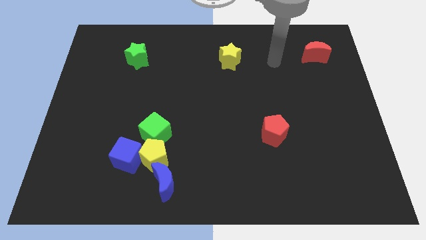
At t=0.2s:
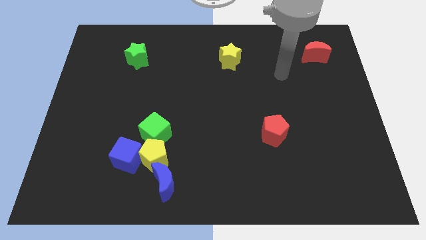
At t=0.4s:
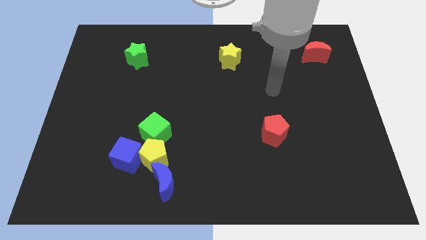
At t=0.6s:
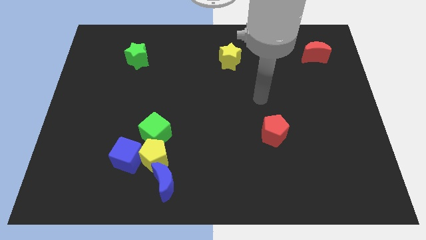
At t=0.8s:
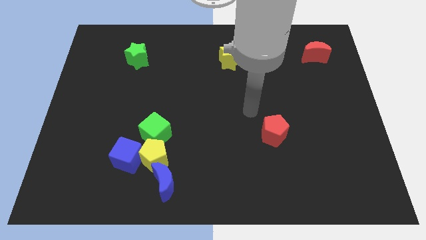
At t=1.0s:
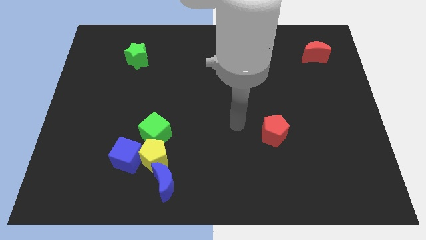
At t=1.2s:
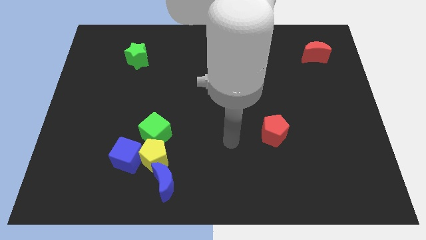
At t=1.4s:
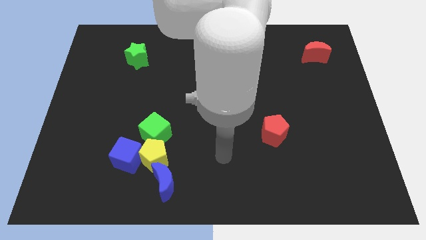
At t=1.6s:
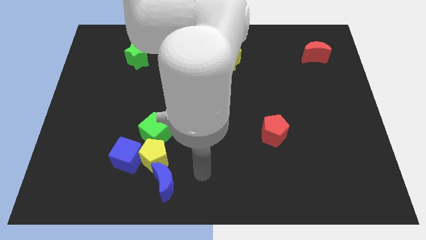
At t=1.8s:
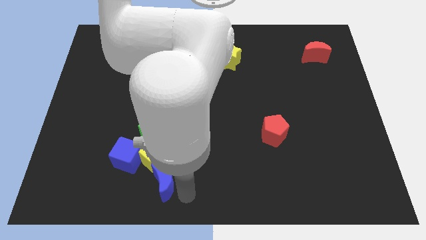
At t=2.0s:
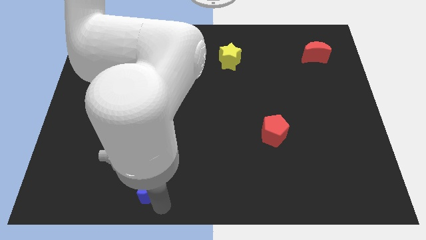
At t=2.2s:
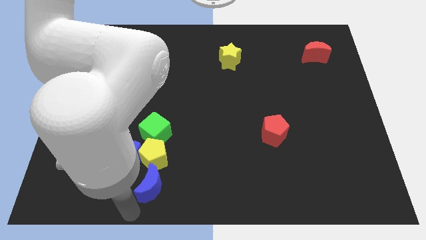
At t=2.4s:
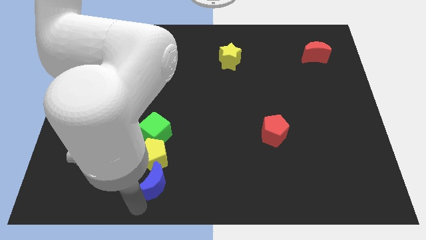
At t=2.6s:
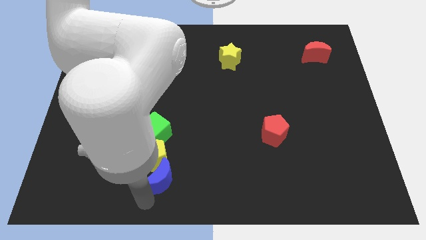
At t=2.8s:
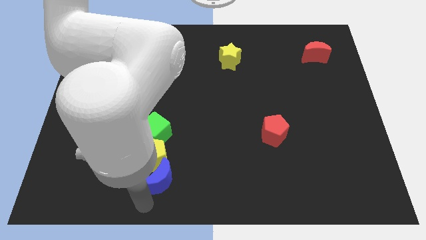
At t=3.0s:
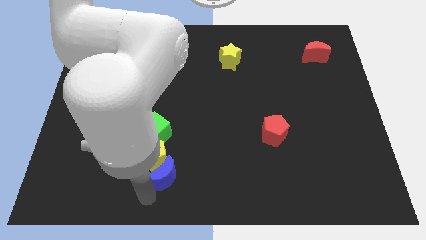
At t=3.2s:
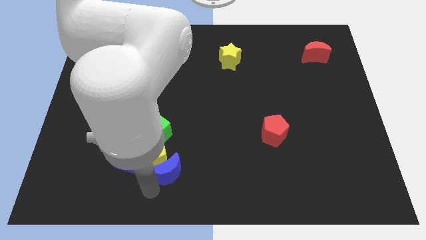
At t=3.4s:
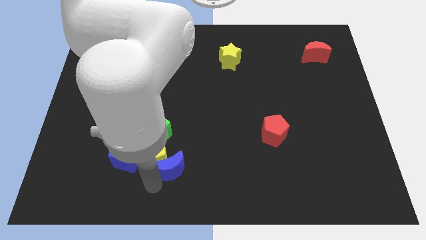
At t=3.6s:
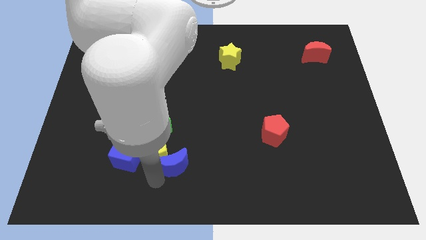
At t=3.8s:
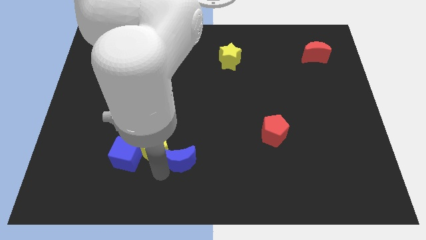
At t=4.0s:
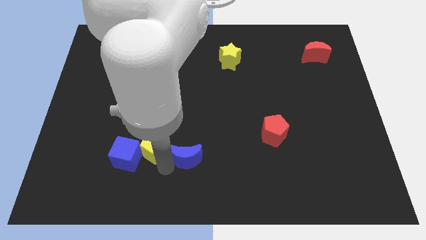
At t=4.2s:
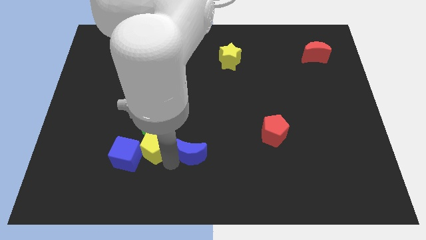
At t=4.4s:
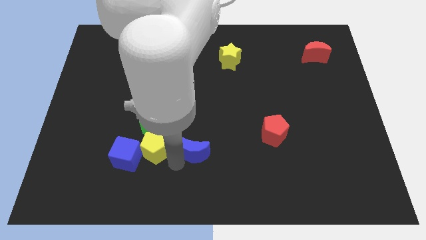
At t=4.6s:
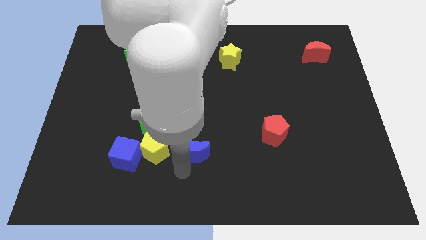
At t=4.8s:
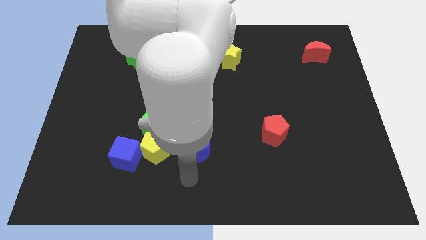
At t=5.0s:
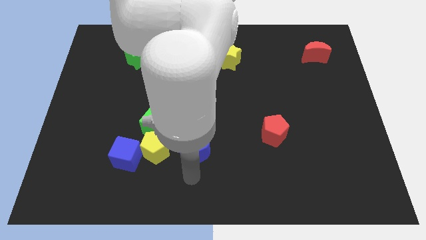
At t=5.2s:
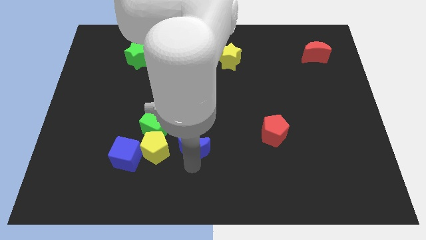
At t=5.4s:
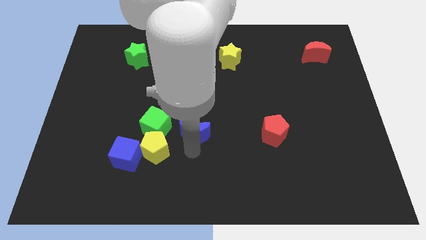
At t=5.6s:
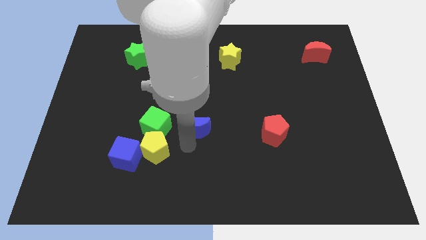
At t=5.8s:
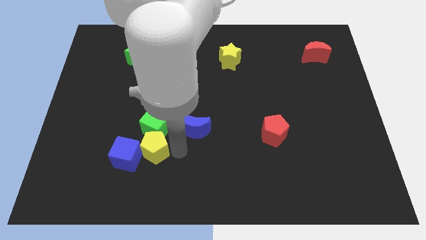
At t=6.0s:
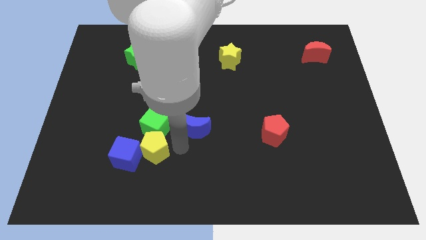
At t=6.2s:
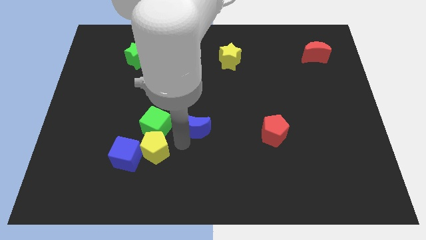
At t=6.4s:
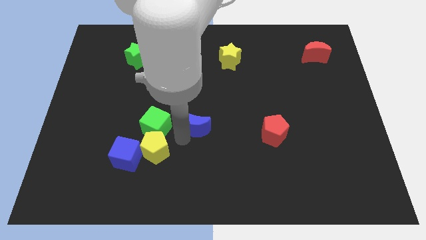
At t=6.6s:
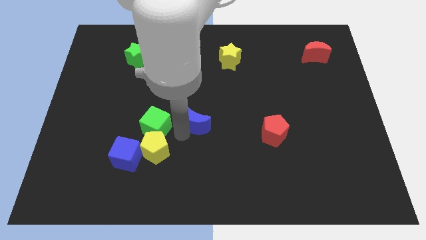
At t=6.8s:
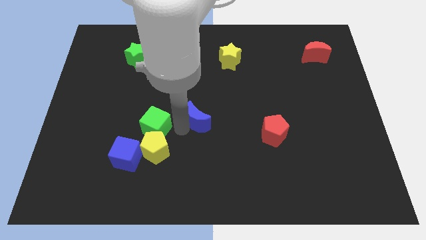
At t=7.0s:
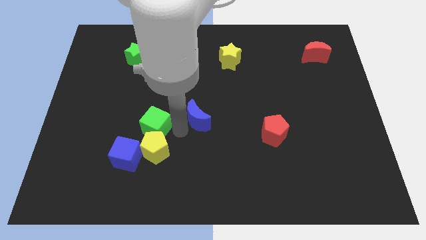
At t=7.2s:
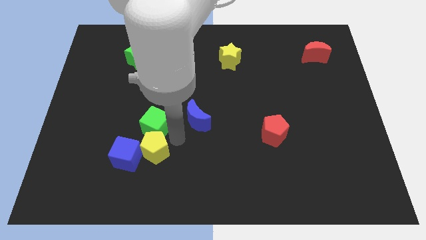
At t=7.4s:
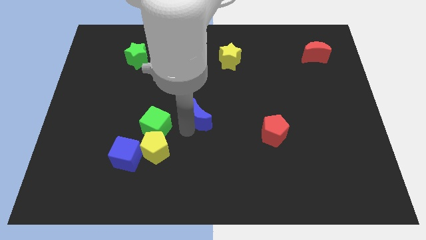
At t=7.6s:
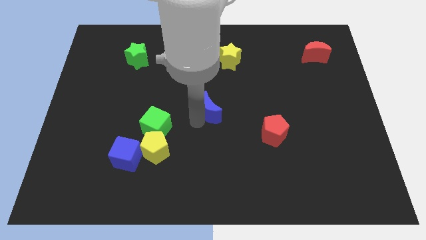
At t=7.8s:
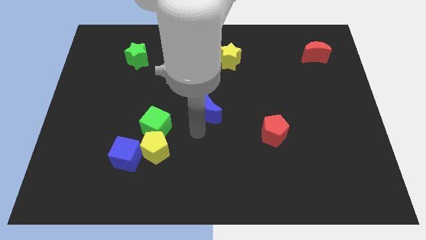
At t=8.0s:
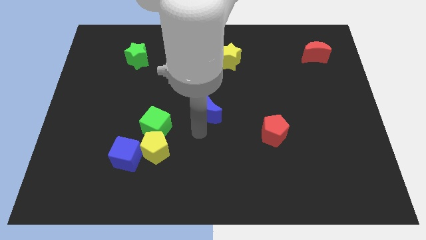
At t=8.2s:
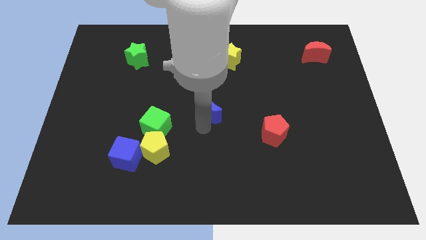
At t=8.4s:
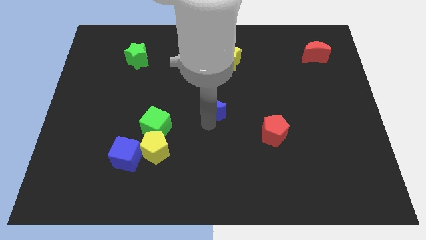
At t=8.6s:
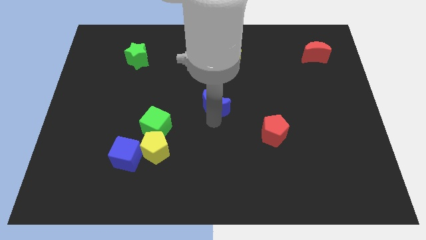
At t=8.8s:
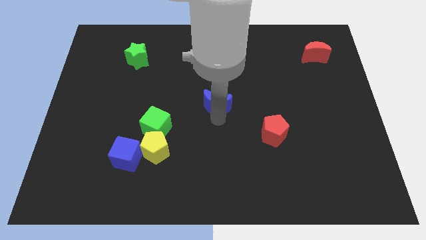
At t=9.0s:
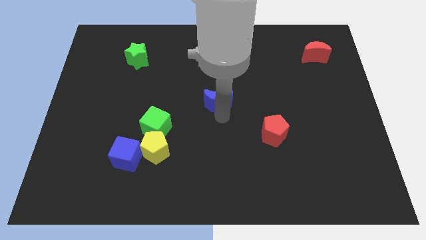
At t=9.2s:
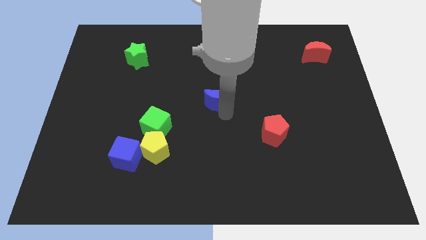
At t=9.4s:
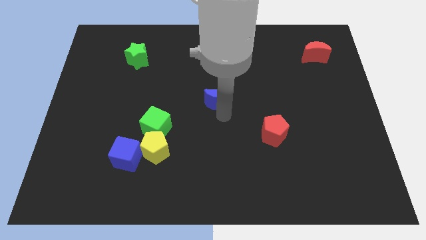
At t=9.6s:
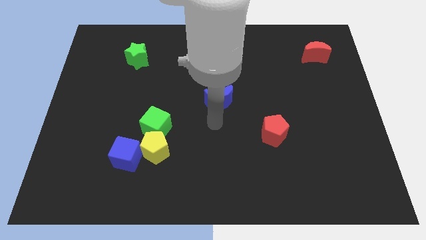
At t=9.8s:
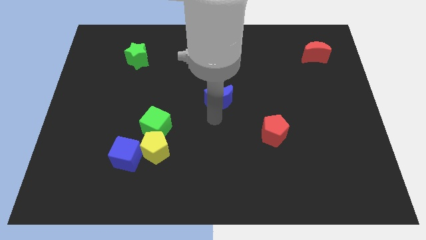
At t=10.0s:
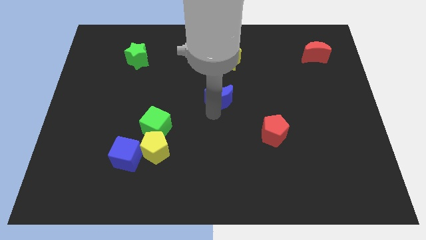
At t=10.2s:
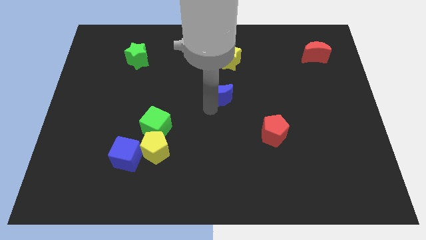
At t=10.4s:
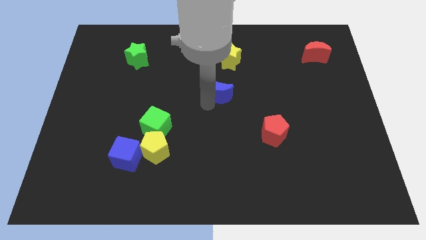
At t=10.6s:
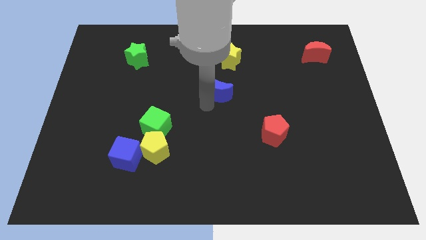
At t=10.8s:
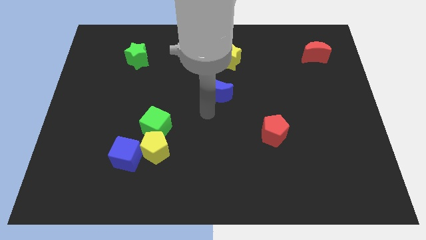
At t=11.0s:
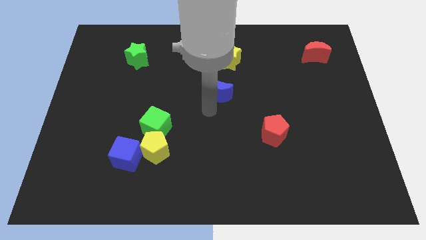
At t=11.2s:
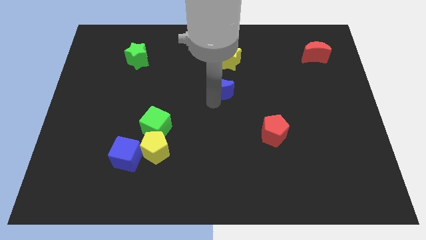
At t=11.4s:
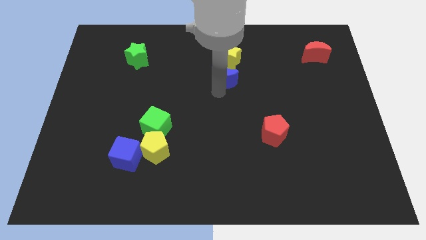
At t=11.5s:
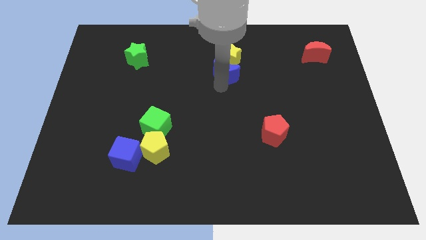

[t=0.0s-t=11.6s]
push the blue moon to the yellow star

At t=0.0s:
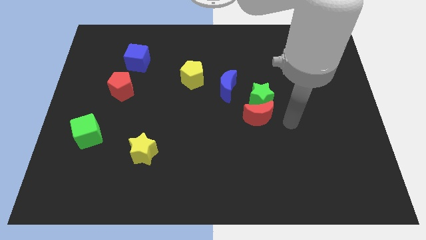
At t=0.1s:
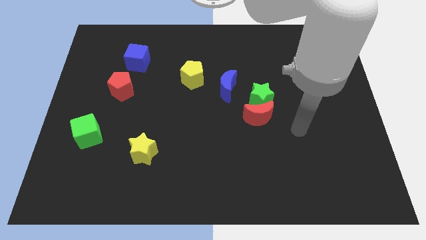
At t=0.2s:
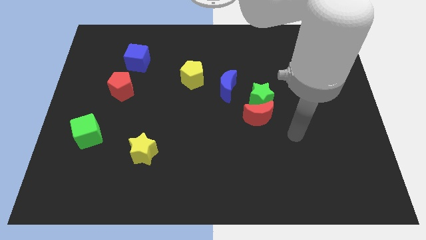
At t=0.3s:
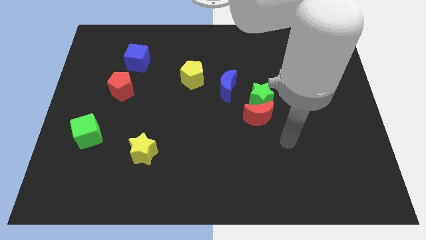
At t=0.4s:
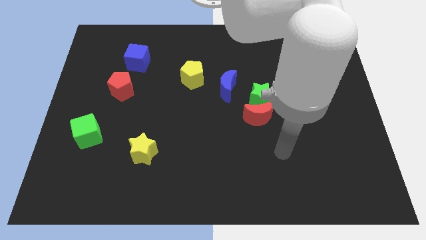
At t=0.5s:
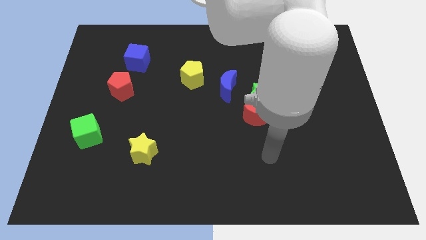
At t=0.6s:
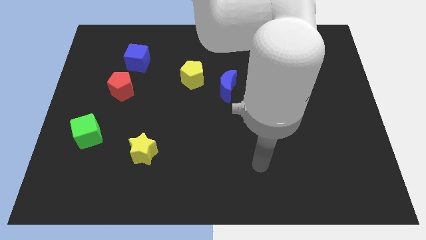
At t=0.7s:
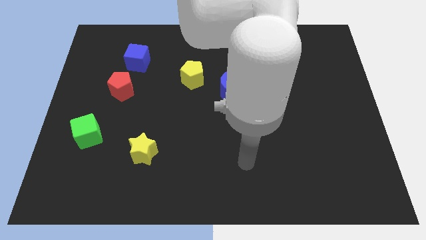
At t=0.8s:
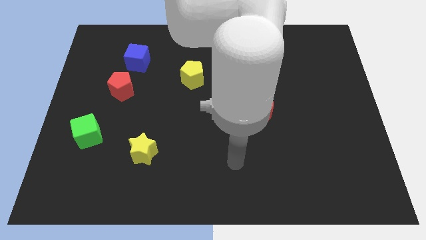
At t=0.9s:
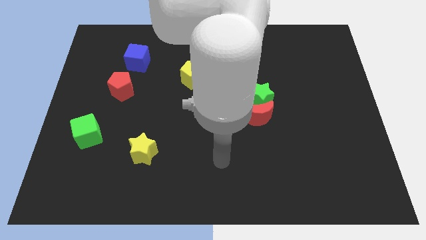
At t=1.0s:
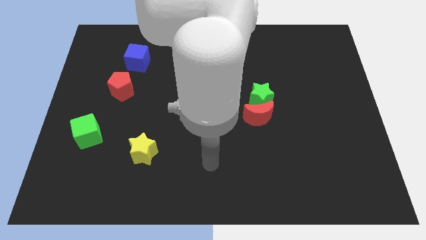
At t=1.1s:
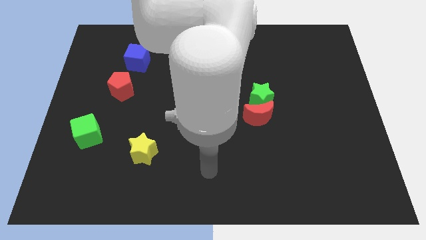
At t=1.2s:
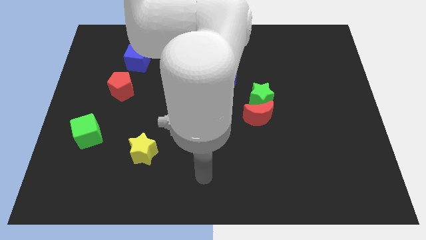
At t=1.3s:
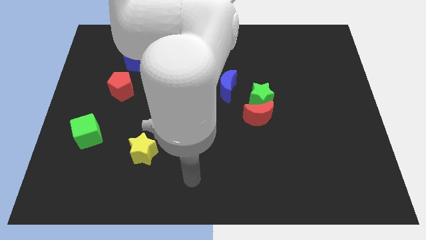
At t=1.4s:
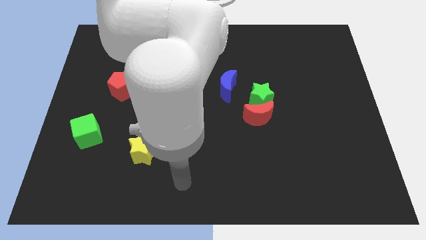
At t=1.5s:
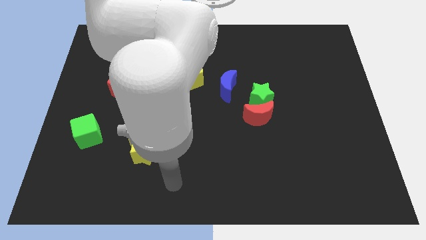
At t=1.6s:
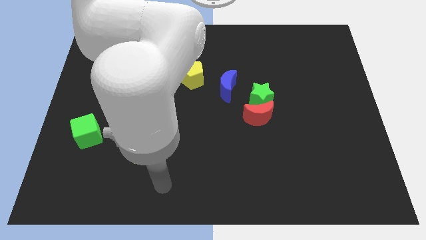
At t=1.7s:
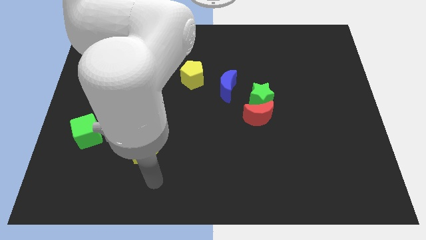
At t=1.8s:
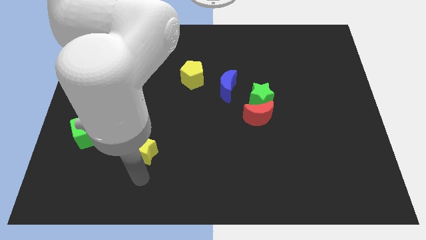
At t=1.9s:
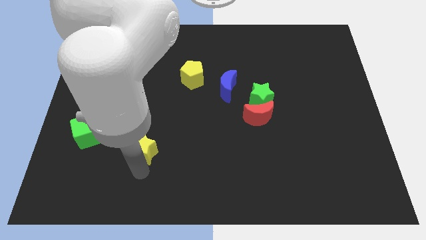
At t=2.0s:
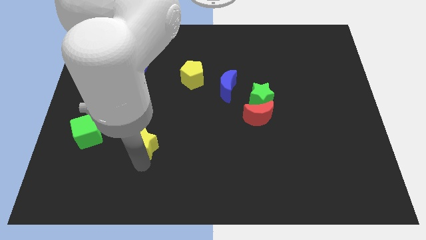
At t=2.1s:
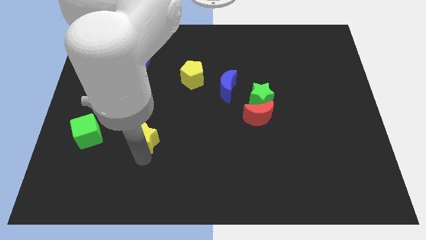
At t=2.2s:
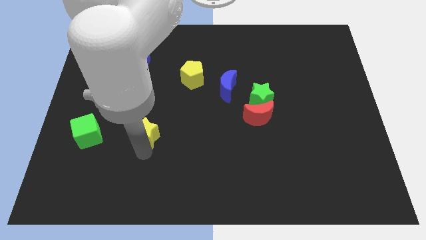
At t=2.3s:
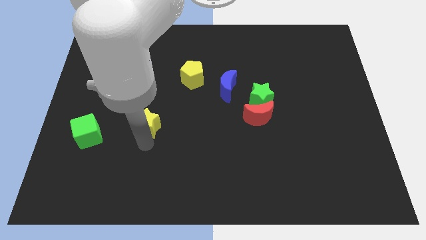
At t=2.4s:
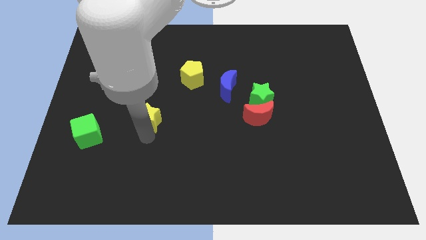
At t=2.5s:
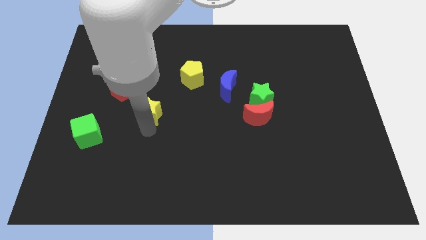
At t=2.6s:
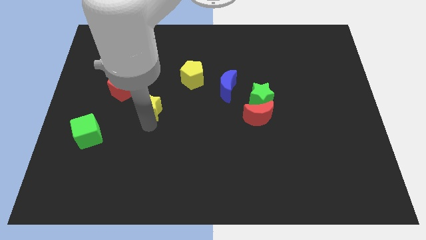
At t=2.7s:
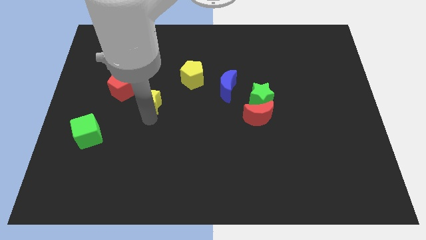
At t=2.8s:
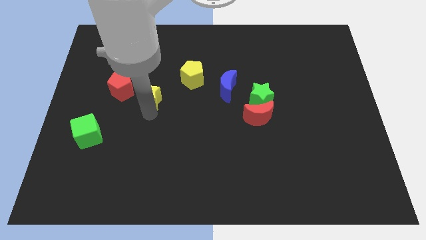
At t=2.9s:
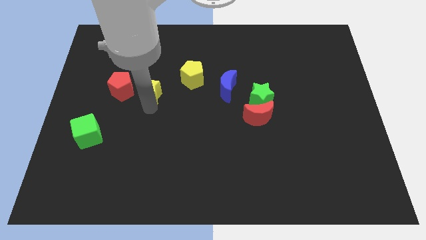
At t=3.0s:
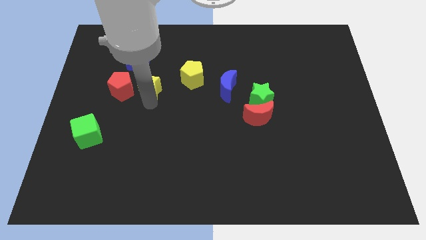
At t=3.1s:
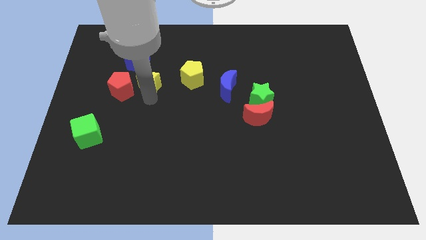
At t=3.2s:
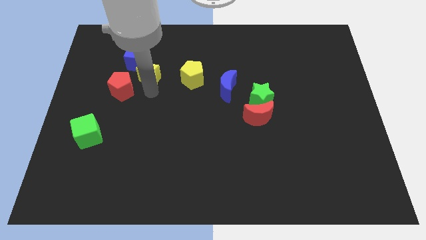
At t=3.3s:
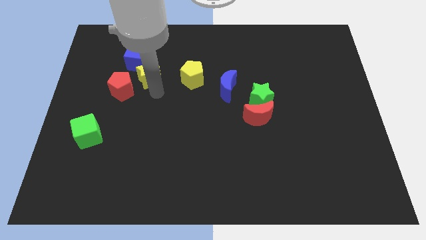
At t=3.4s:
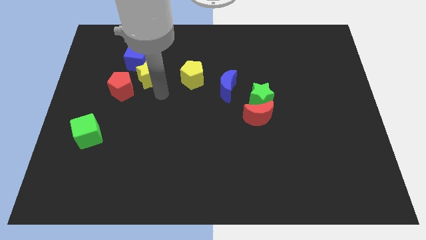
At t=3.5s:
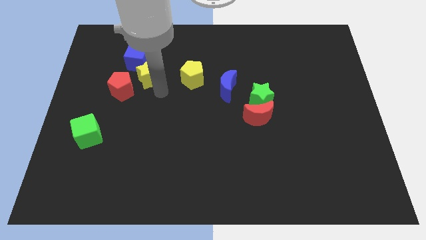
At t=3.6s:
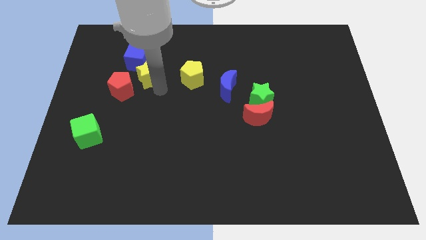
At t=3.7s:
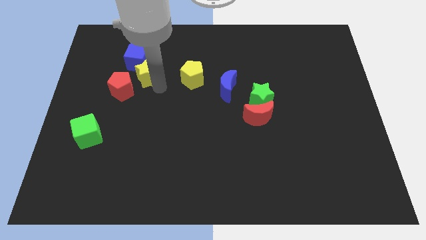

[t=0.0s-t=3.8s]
move the yellow star towards the blue cube
